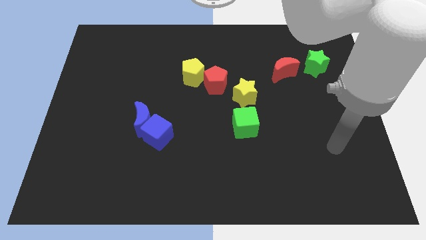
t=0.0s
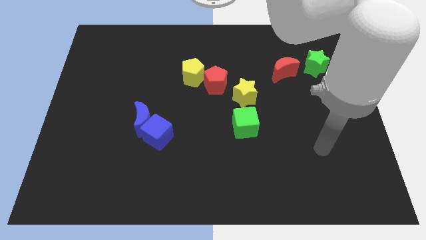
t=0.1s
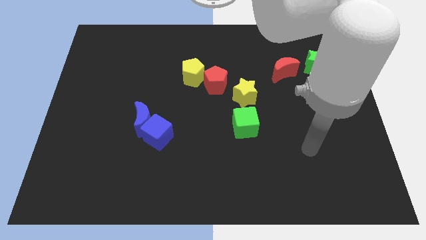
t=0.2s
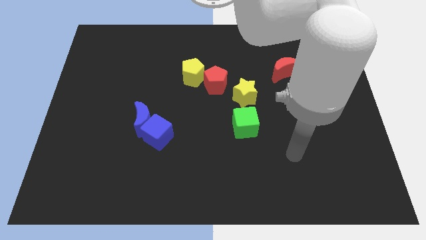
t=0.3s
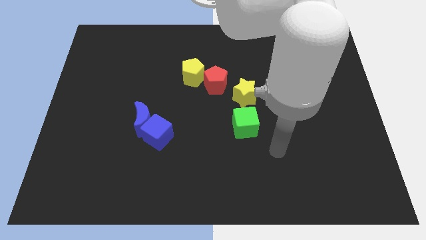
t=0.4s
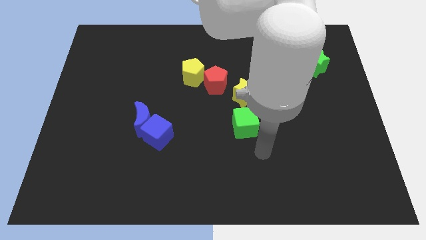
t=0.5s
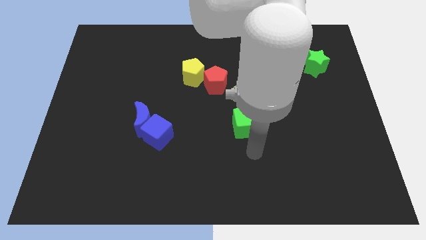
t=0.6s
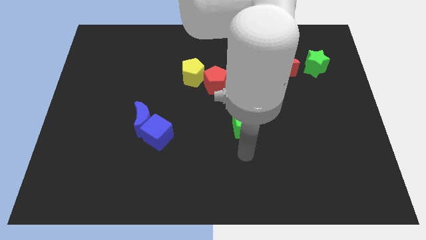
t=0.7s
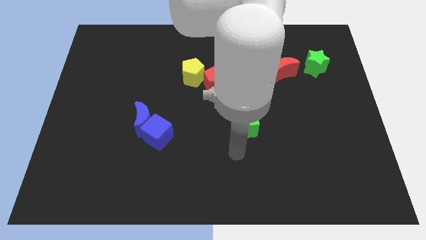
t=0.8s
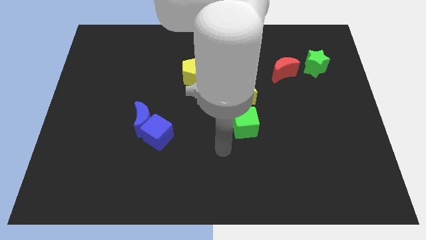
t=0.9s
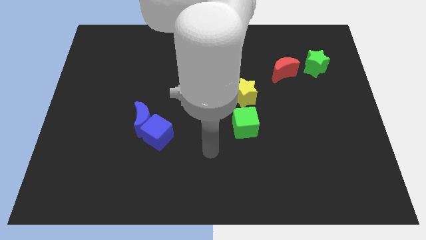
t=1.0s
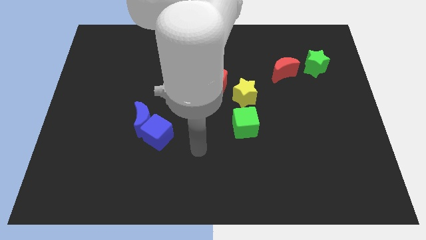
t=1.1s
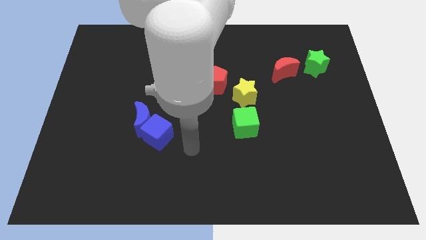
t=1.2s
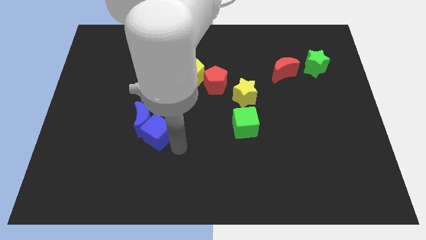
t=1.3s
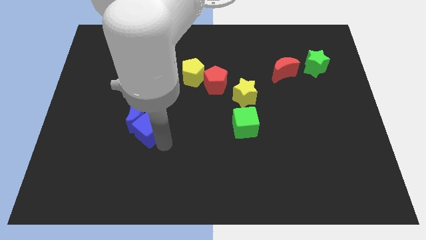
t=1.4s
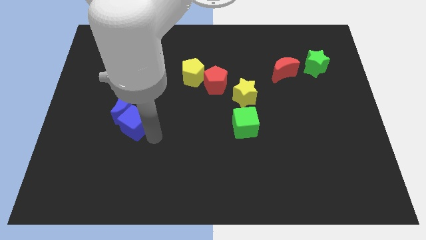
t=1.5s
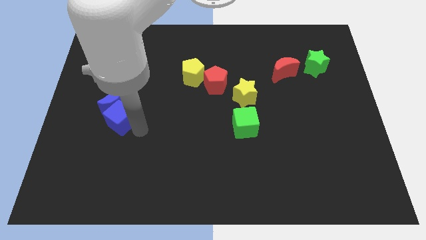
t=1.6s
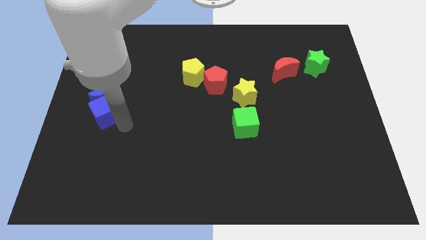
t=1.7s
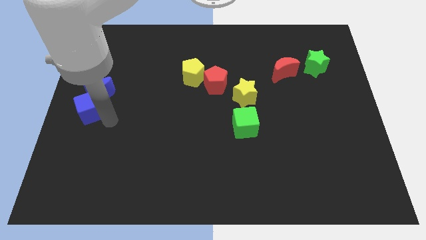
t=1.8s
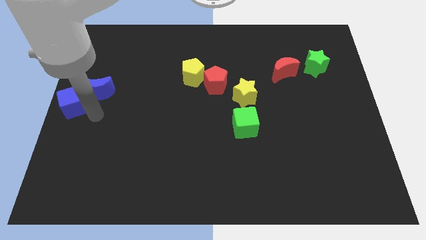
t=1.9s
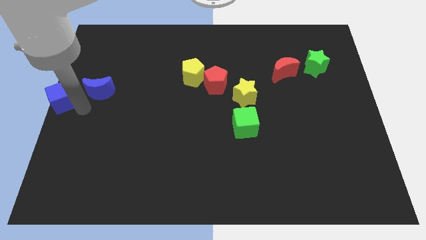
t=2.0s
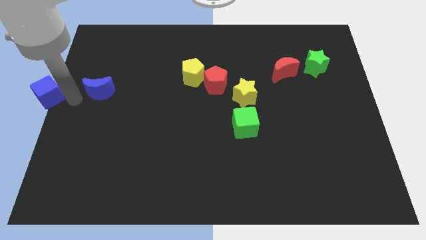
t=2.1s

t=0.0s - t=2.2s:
move the blue moon away from the blue cube

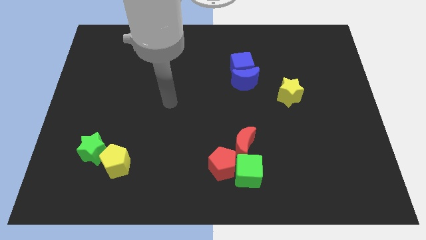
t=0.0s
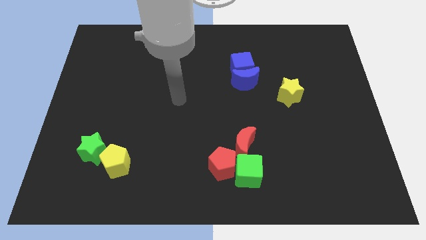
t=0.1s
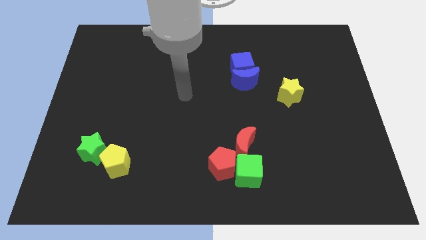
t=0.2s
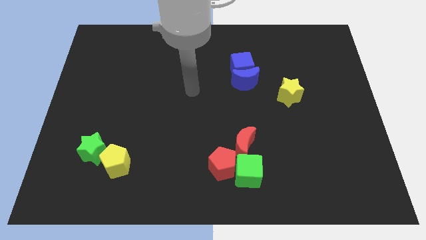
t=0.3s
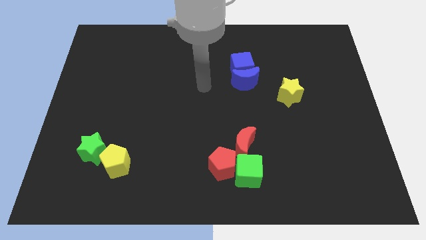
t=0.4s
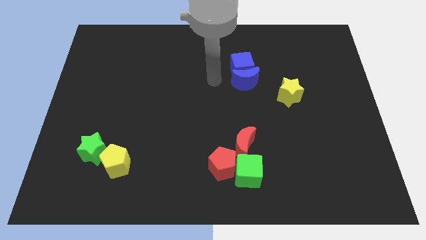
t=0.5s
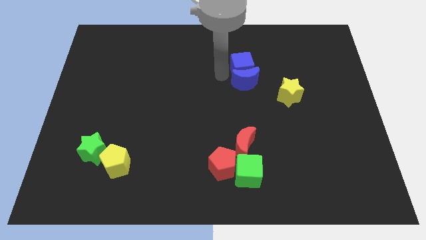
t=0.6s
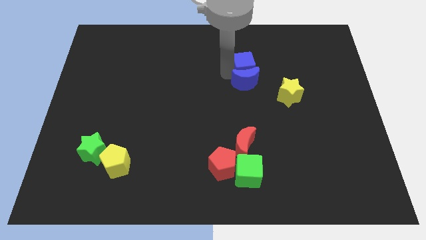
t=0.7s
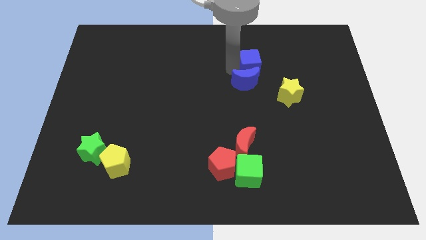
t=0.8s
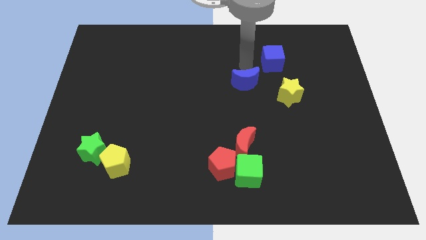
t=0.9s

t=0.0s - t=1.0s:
separate the blue moon from the blue cube

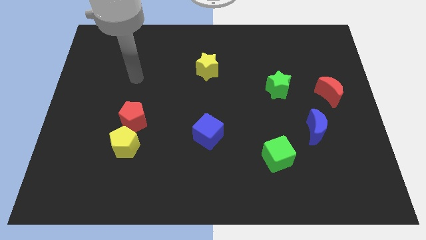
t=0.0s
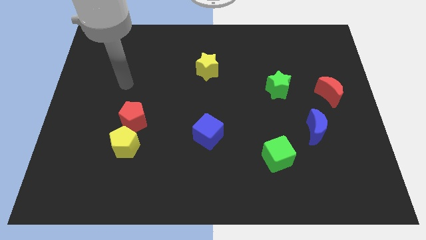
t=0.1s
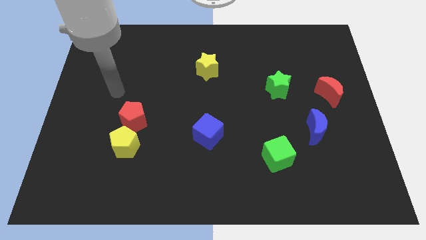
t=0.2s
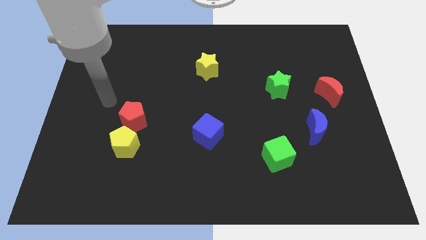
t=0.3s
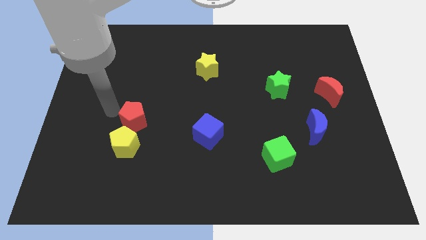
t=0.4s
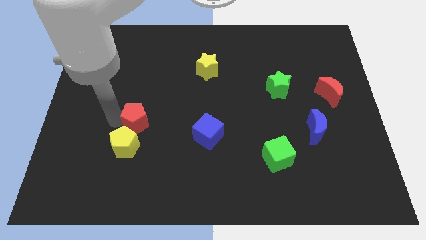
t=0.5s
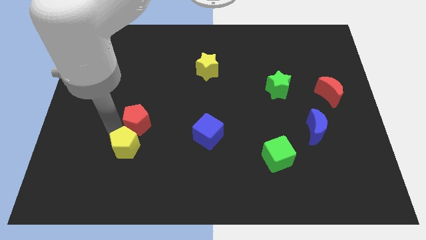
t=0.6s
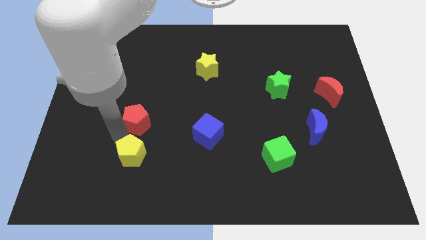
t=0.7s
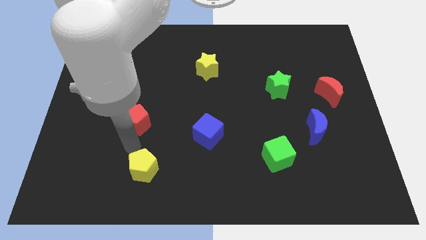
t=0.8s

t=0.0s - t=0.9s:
pull the red pentagon apart from the yellow pentagon

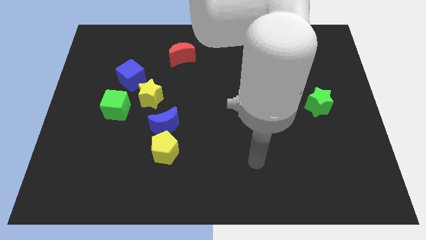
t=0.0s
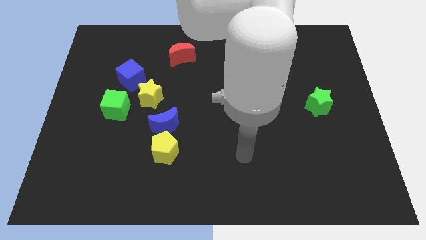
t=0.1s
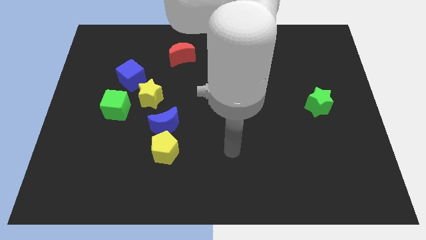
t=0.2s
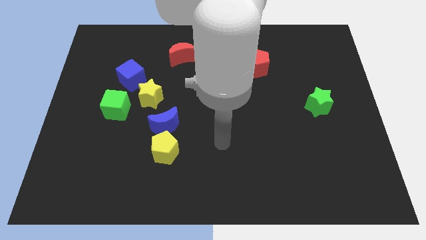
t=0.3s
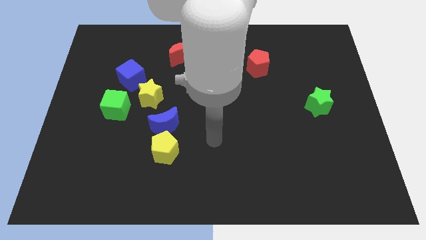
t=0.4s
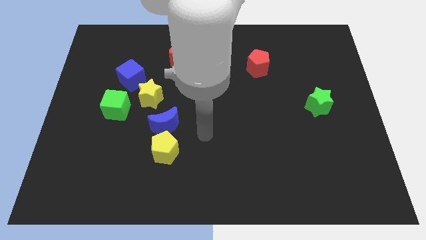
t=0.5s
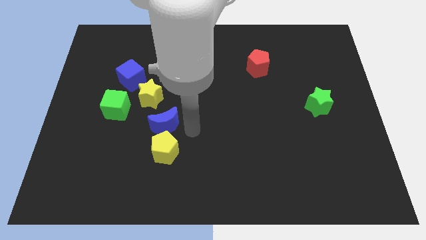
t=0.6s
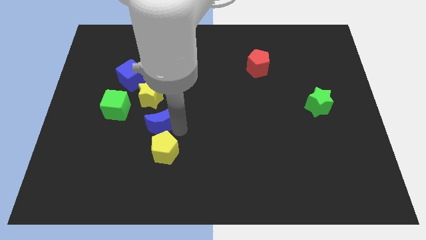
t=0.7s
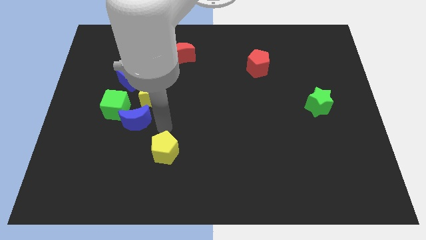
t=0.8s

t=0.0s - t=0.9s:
move the yellow pentagon away from the blue moon

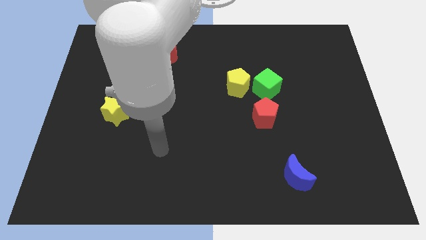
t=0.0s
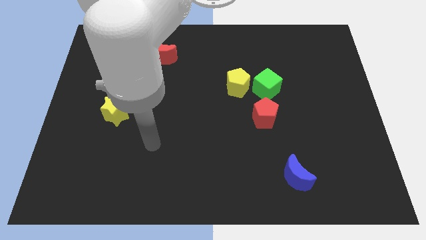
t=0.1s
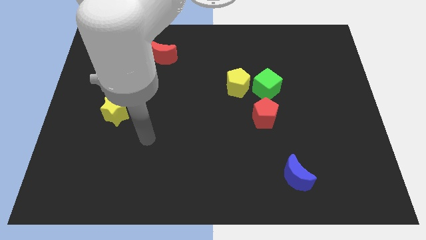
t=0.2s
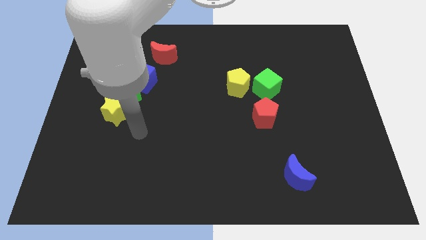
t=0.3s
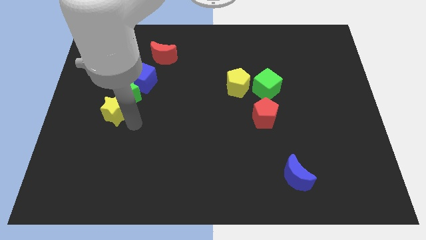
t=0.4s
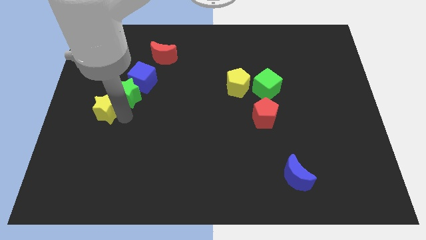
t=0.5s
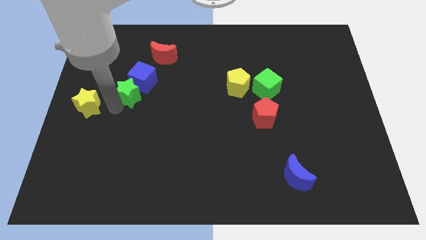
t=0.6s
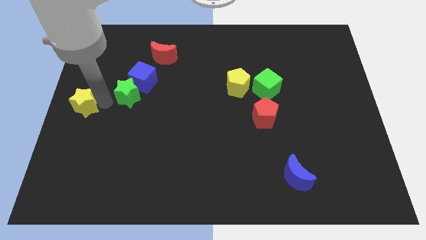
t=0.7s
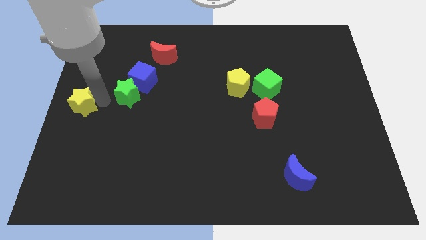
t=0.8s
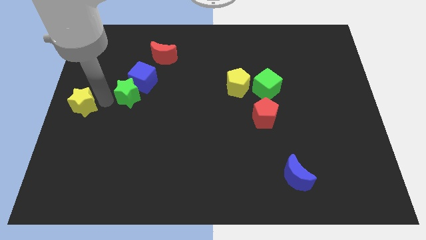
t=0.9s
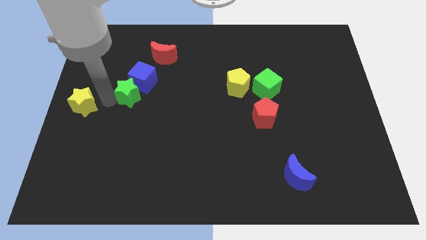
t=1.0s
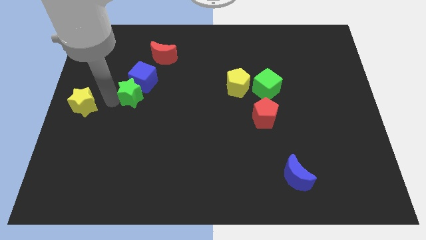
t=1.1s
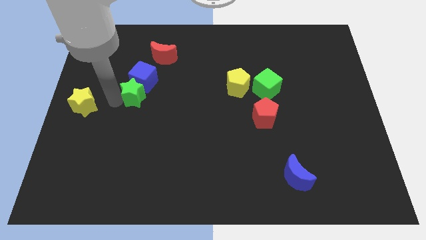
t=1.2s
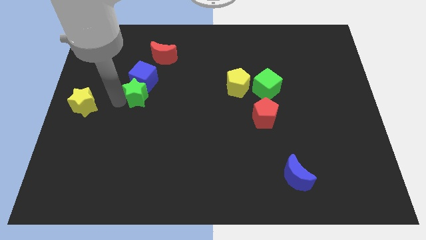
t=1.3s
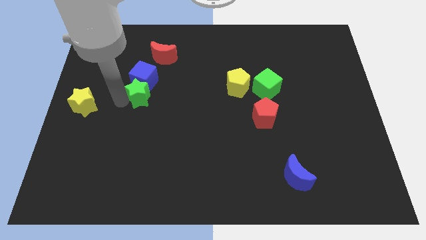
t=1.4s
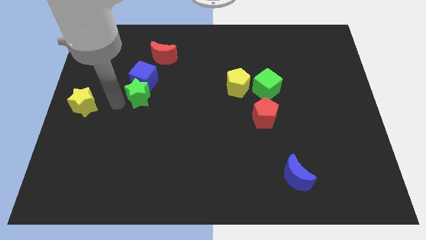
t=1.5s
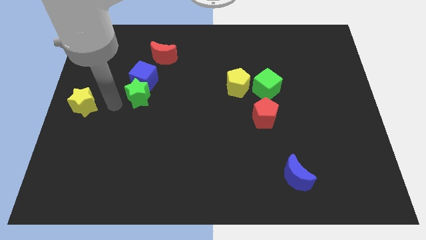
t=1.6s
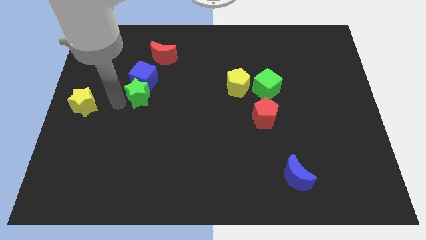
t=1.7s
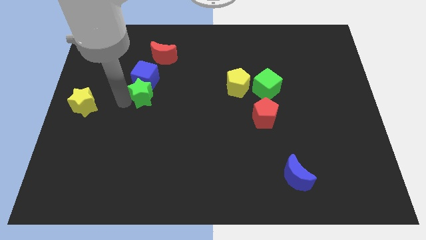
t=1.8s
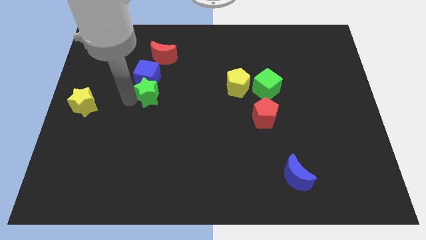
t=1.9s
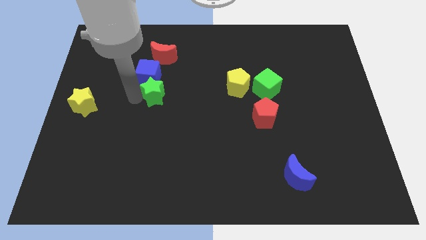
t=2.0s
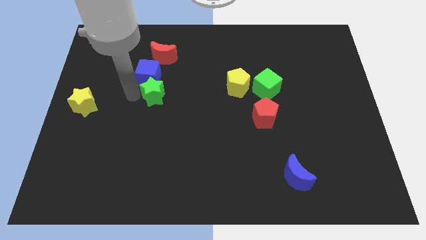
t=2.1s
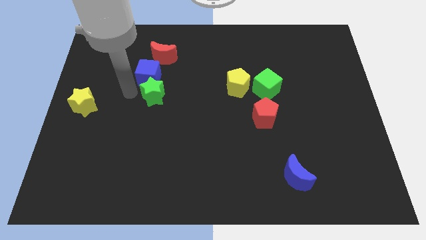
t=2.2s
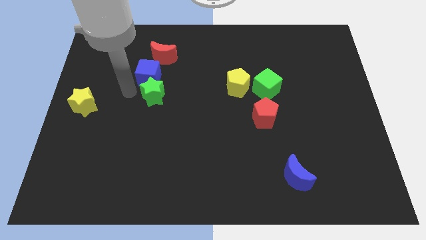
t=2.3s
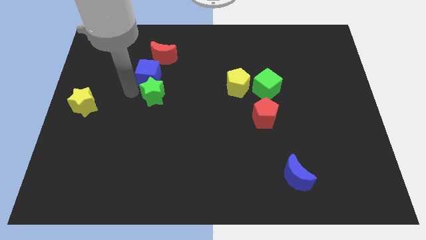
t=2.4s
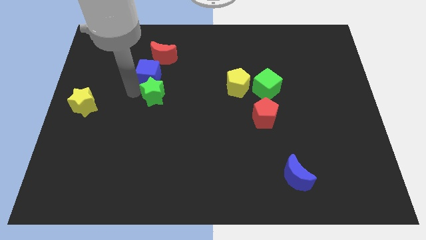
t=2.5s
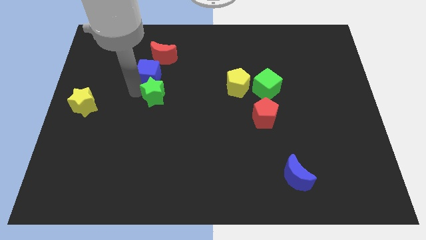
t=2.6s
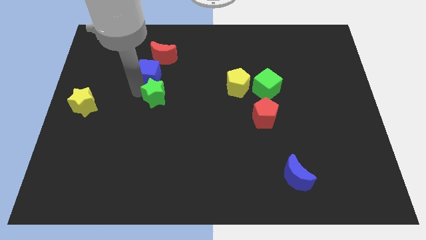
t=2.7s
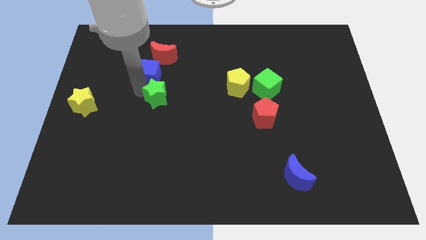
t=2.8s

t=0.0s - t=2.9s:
separate the green star from the blue cube and yellow star

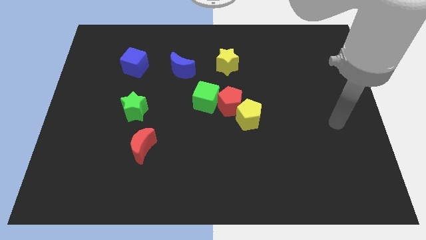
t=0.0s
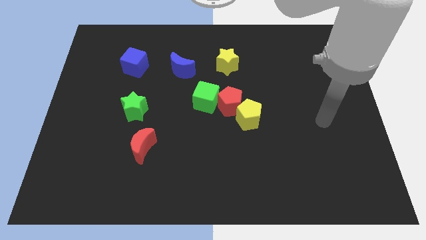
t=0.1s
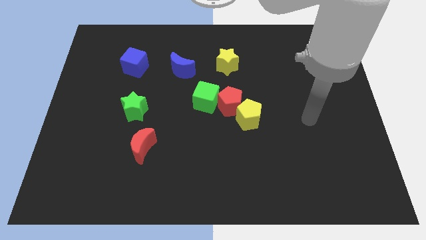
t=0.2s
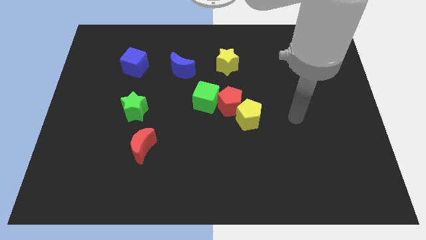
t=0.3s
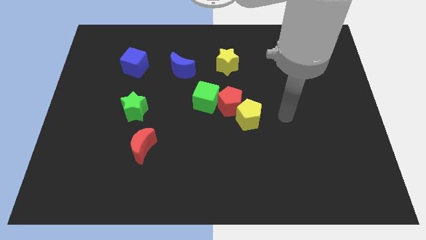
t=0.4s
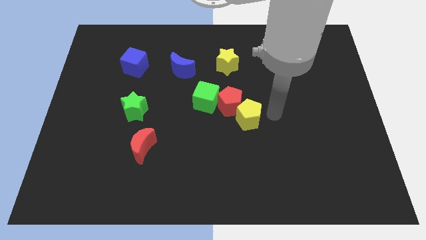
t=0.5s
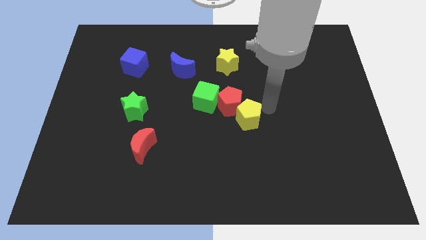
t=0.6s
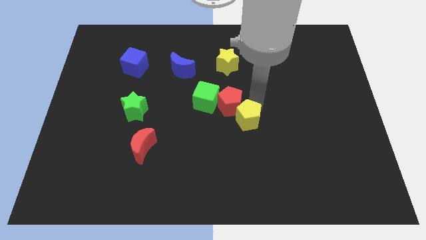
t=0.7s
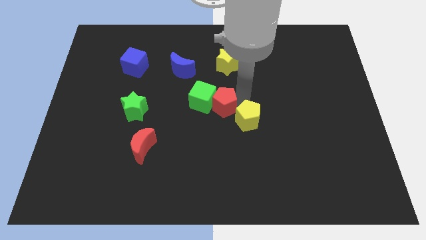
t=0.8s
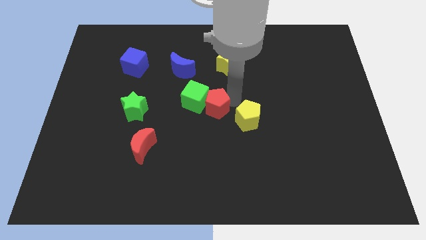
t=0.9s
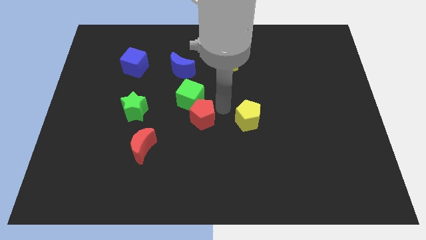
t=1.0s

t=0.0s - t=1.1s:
pull the yellow pentagon apart from the red pentagon

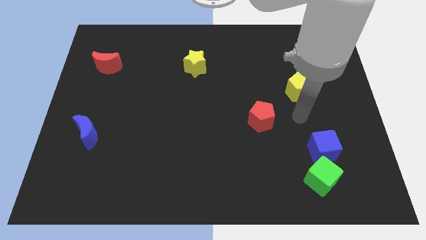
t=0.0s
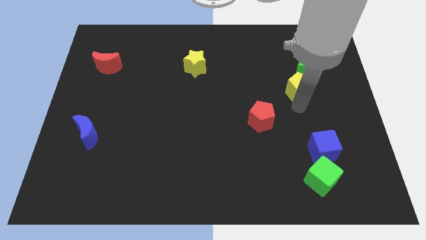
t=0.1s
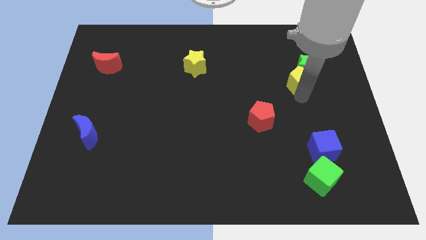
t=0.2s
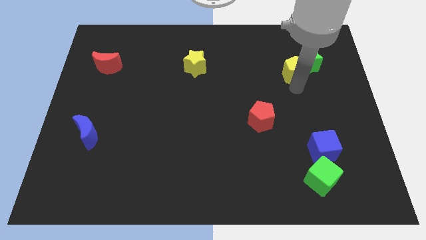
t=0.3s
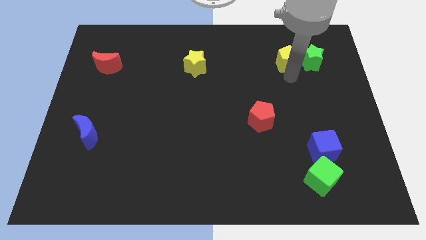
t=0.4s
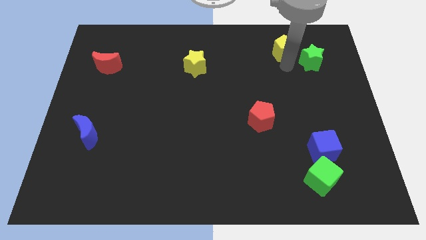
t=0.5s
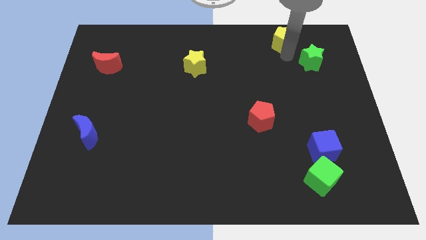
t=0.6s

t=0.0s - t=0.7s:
separate the green star from the yellow pentagon
